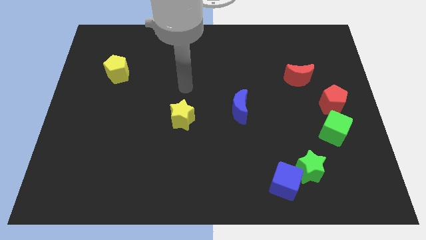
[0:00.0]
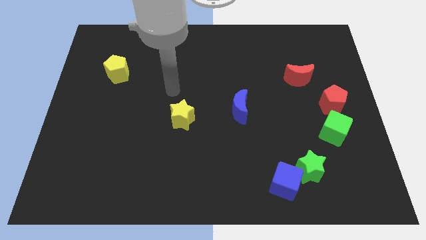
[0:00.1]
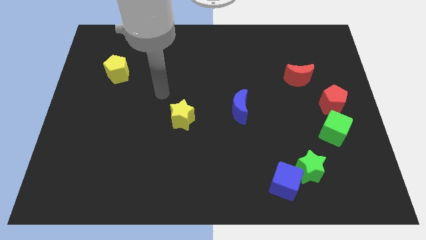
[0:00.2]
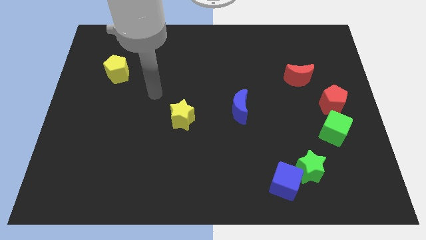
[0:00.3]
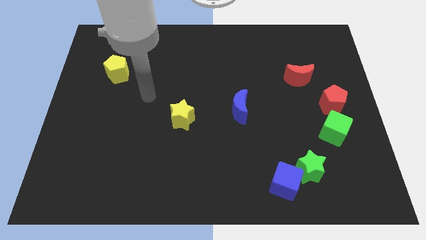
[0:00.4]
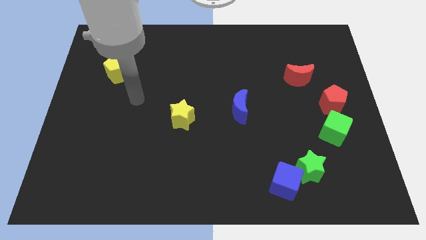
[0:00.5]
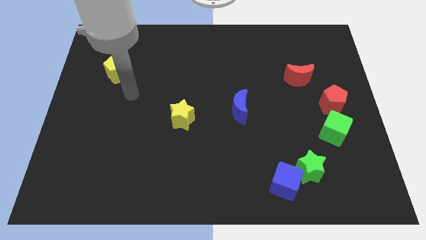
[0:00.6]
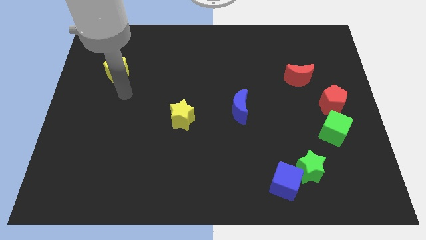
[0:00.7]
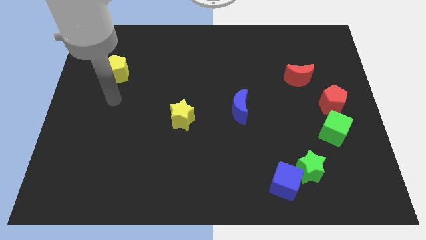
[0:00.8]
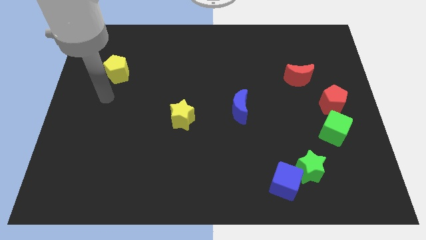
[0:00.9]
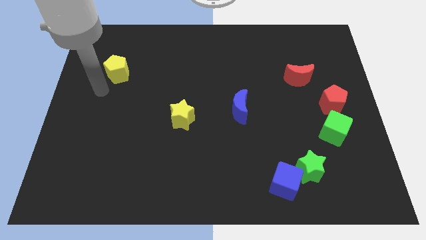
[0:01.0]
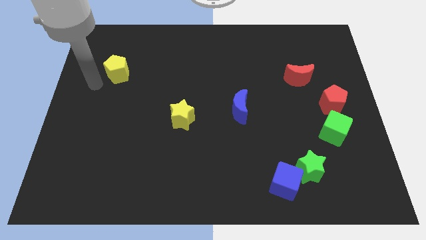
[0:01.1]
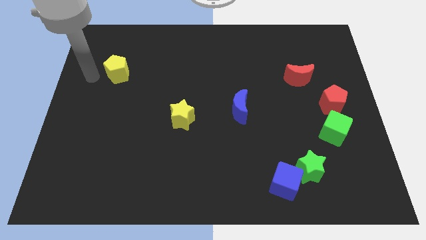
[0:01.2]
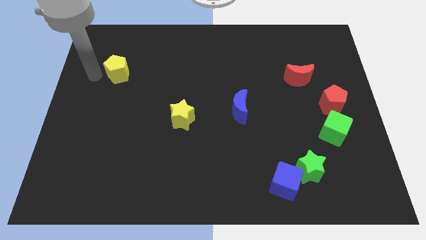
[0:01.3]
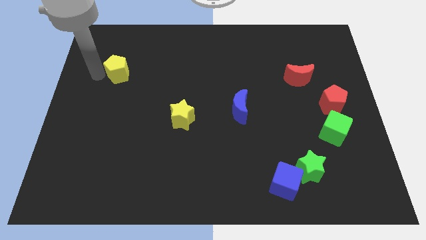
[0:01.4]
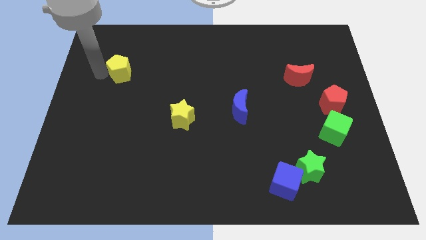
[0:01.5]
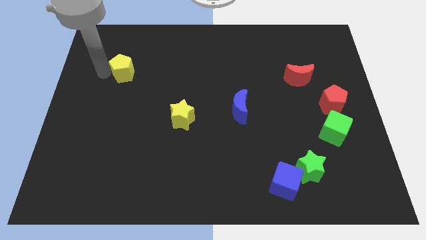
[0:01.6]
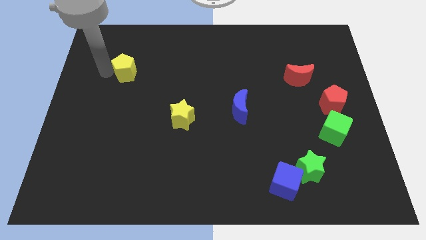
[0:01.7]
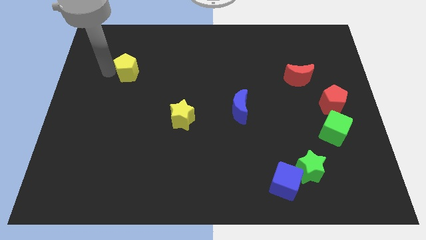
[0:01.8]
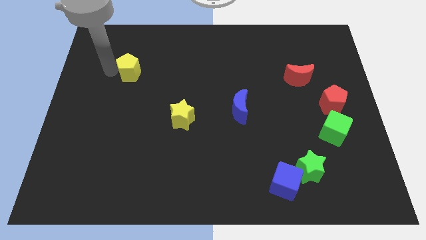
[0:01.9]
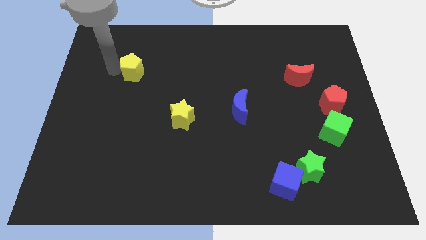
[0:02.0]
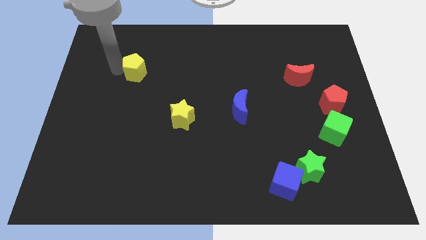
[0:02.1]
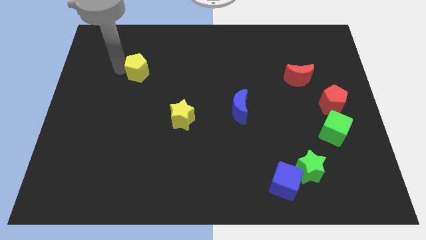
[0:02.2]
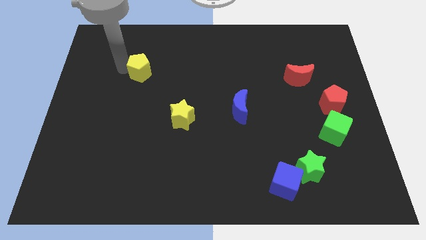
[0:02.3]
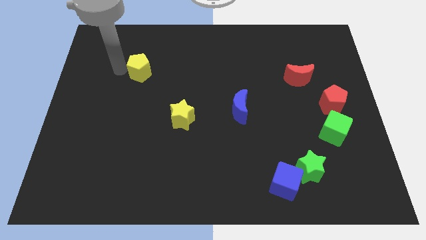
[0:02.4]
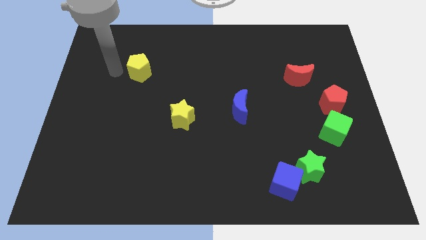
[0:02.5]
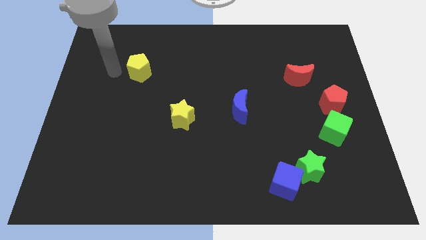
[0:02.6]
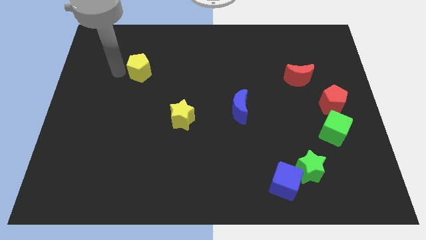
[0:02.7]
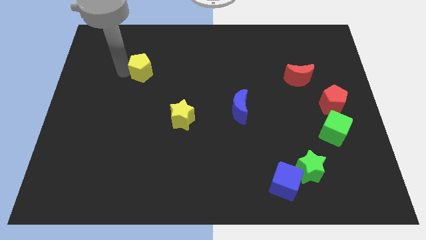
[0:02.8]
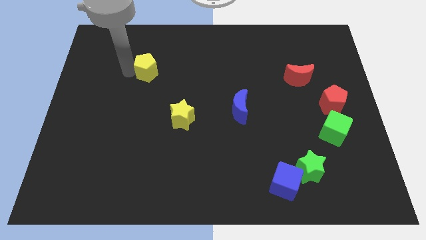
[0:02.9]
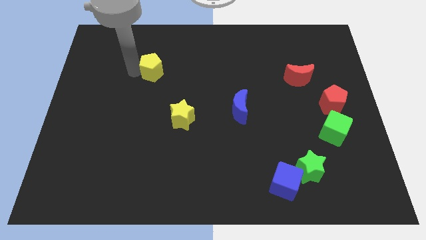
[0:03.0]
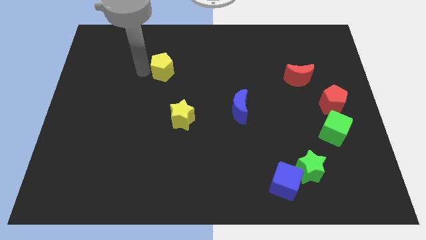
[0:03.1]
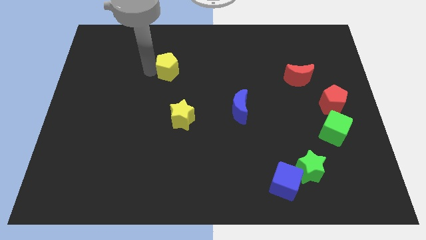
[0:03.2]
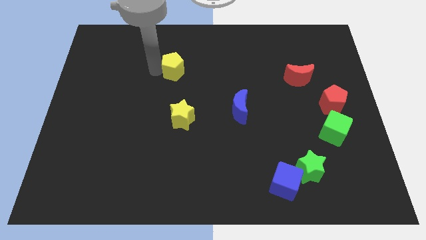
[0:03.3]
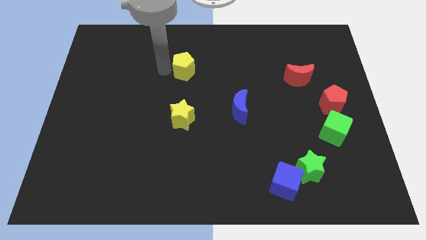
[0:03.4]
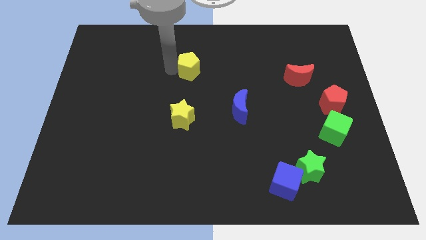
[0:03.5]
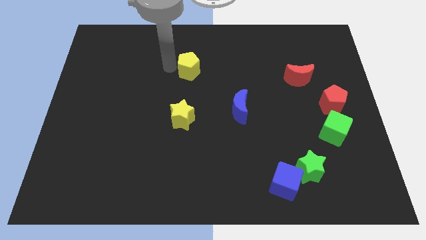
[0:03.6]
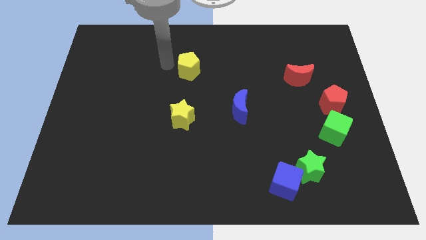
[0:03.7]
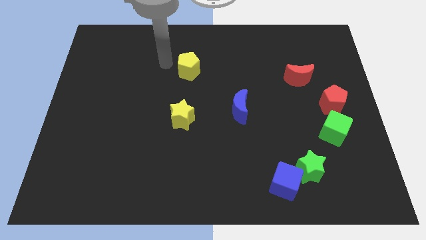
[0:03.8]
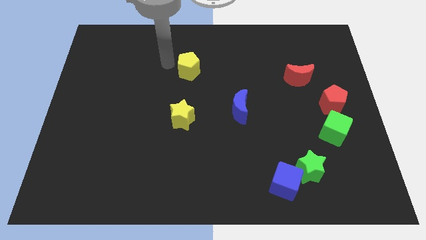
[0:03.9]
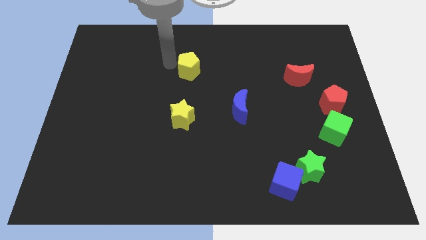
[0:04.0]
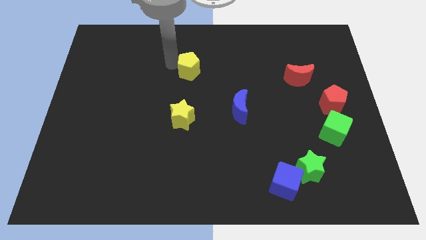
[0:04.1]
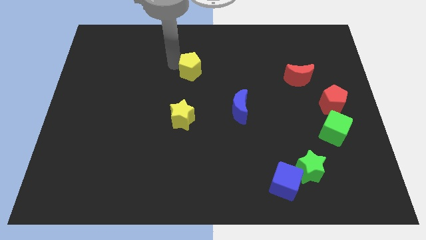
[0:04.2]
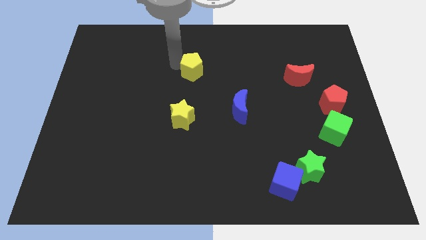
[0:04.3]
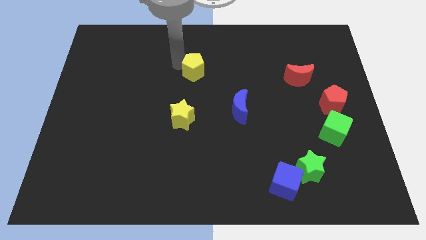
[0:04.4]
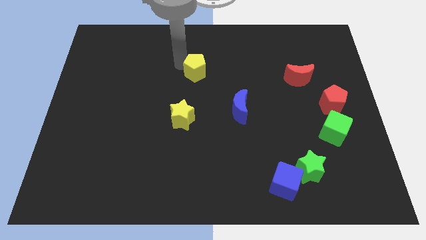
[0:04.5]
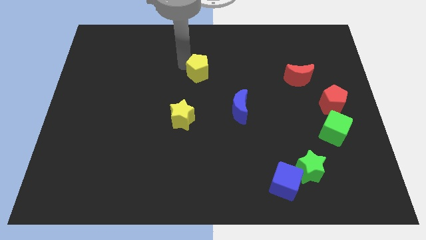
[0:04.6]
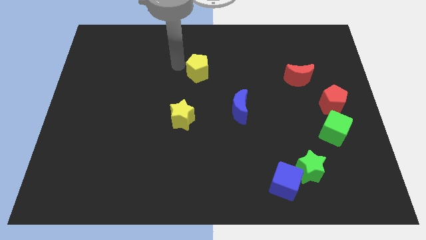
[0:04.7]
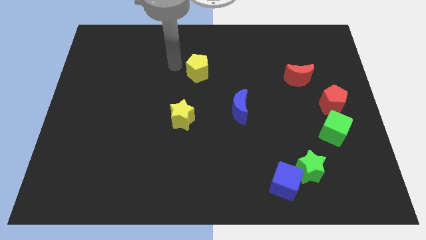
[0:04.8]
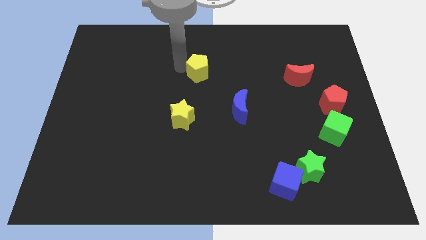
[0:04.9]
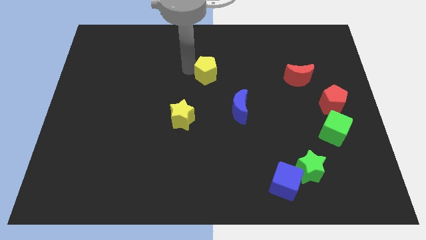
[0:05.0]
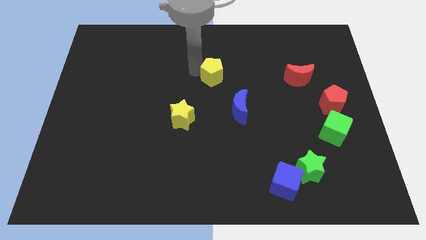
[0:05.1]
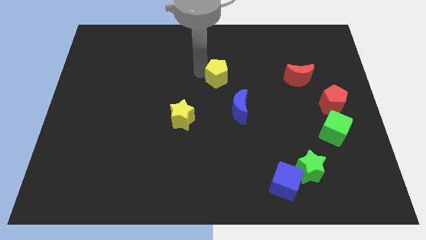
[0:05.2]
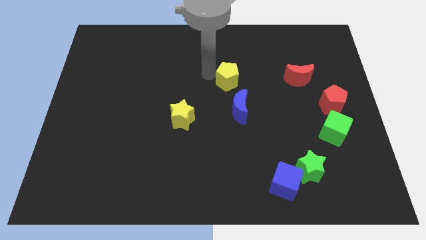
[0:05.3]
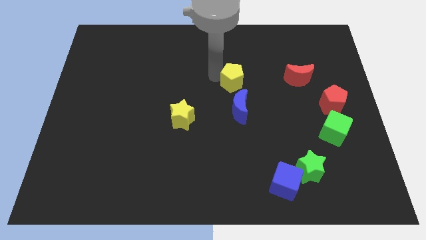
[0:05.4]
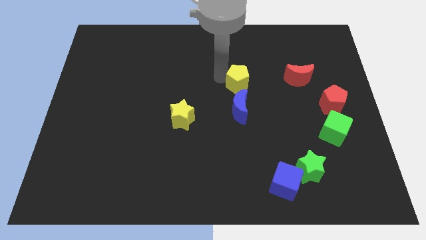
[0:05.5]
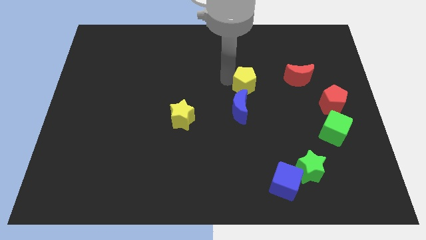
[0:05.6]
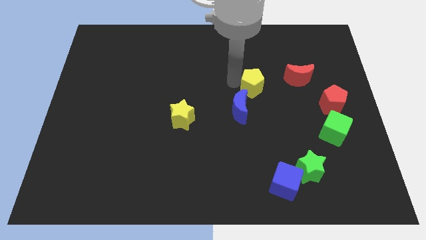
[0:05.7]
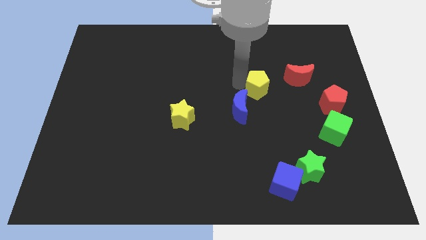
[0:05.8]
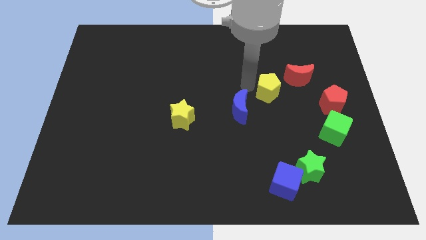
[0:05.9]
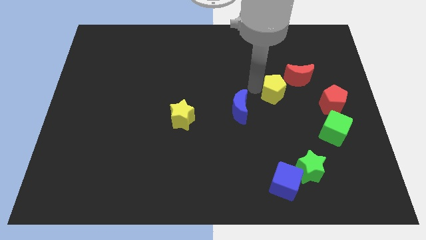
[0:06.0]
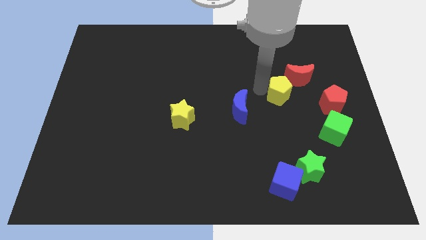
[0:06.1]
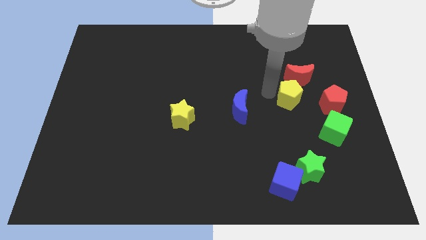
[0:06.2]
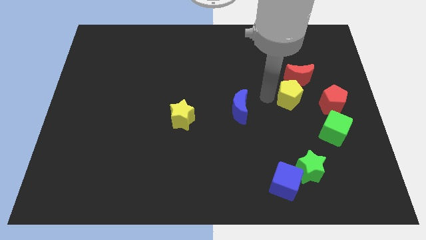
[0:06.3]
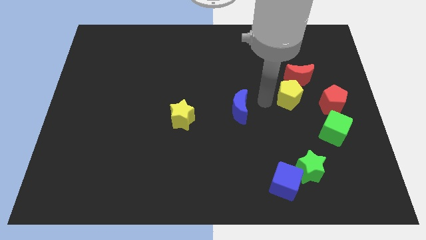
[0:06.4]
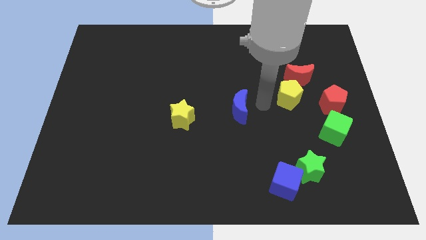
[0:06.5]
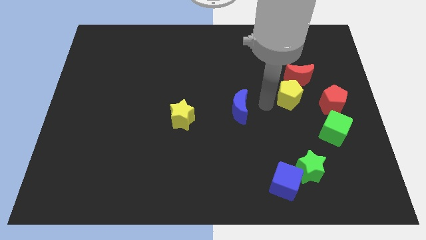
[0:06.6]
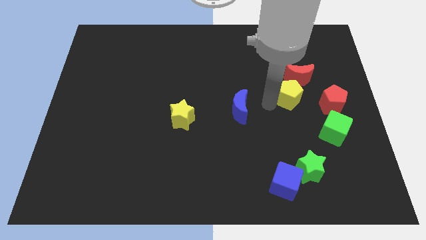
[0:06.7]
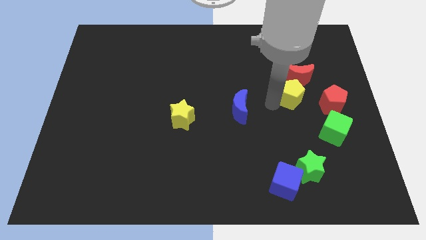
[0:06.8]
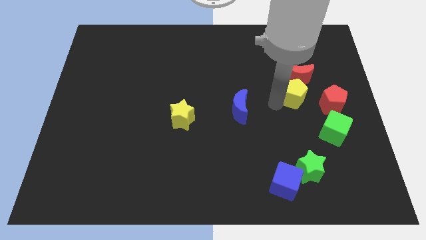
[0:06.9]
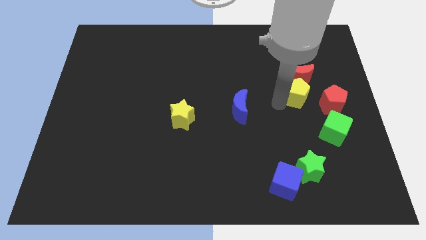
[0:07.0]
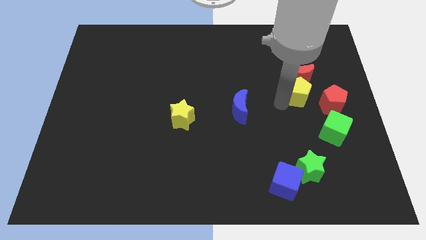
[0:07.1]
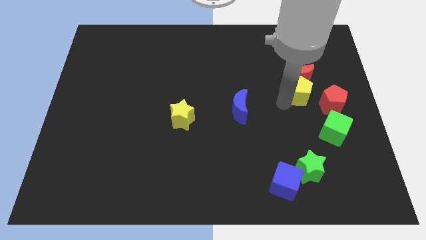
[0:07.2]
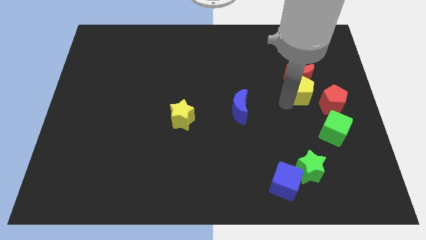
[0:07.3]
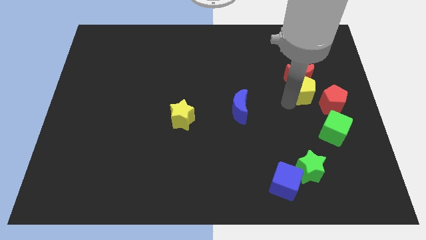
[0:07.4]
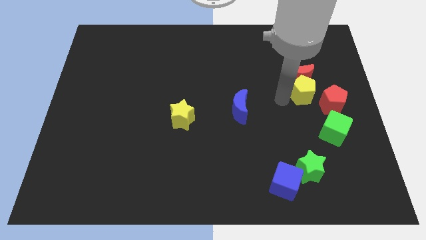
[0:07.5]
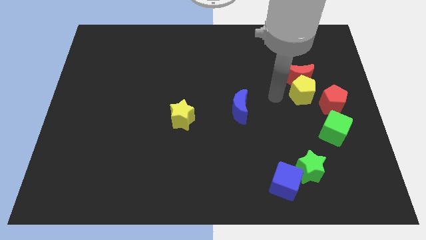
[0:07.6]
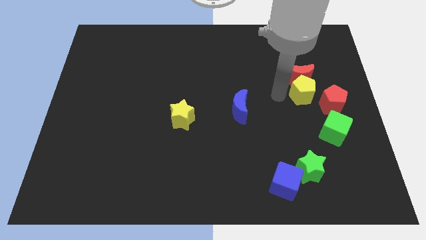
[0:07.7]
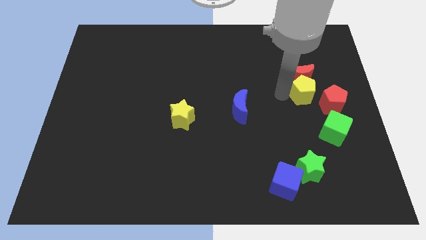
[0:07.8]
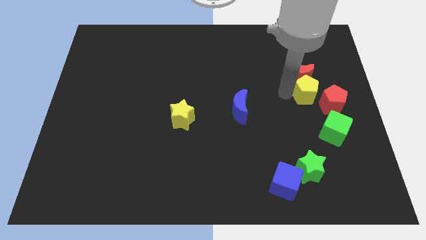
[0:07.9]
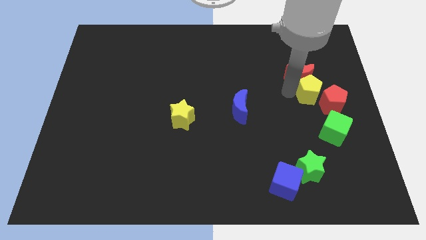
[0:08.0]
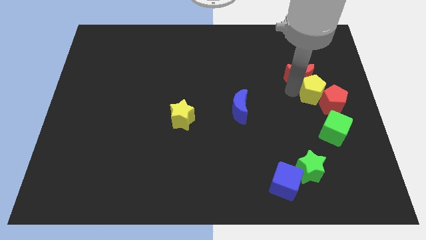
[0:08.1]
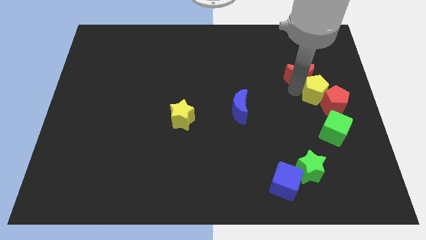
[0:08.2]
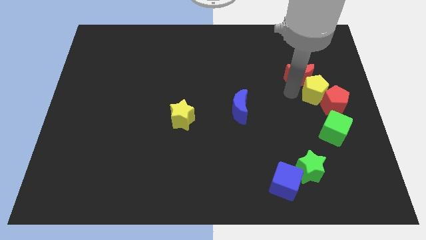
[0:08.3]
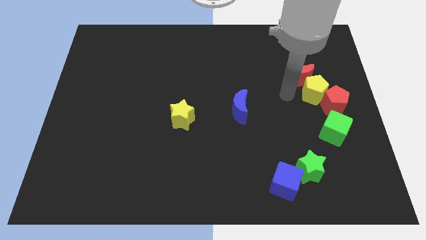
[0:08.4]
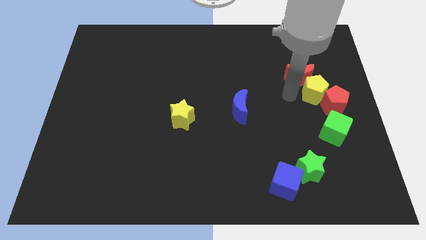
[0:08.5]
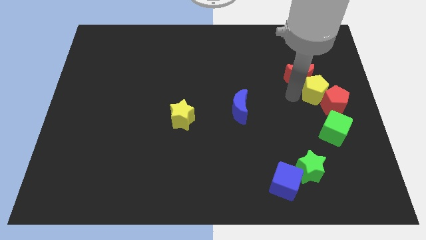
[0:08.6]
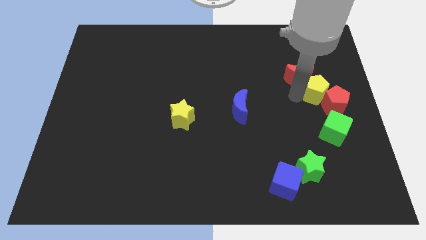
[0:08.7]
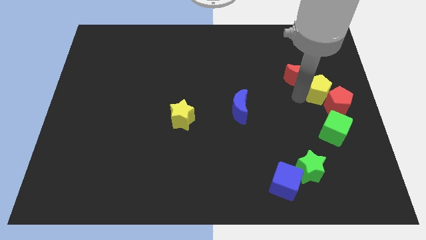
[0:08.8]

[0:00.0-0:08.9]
push the yellow pentagon to the right side of the board
